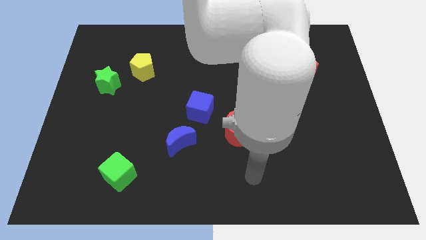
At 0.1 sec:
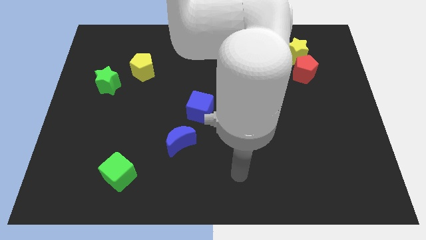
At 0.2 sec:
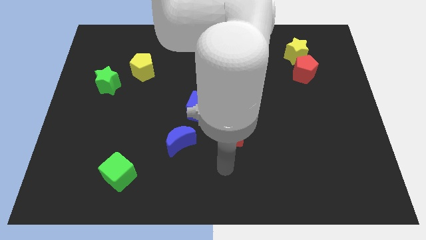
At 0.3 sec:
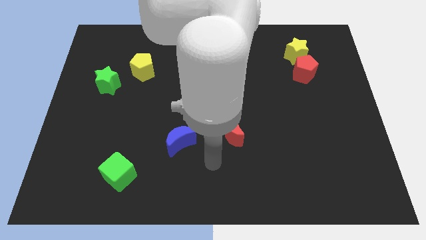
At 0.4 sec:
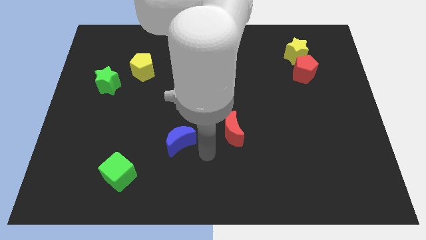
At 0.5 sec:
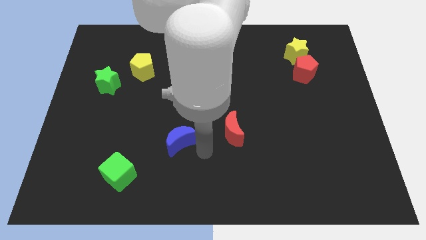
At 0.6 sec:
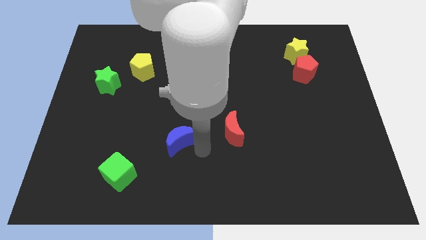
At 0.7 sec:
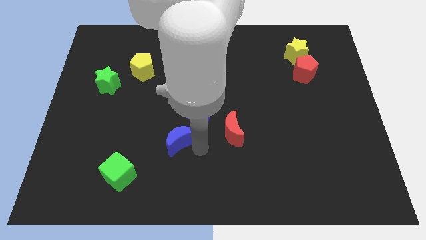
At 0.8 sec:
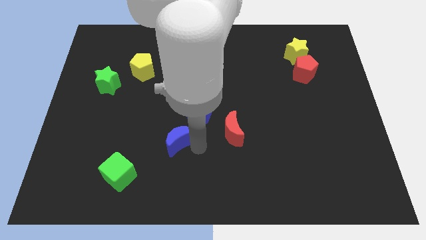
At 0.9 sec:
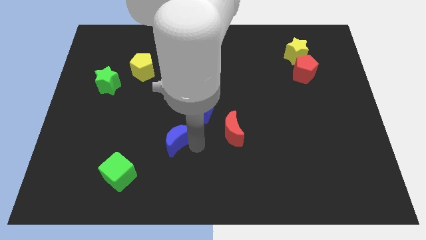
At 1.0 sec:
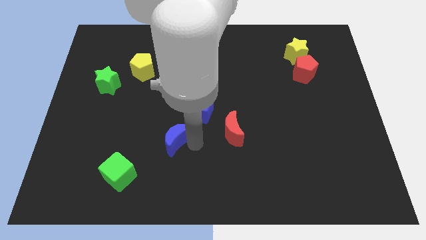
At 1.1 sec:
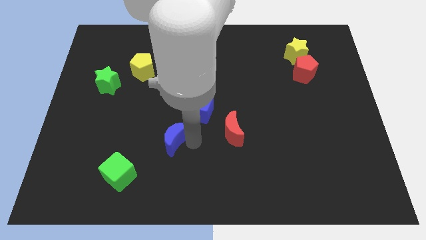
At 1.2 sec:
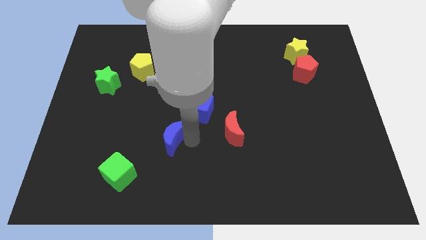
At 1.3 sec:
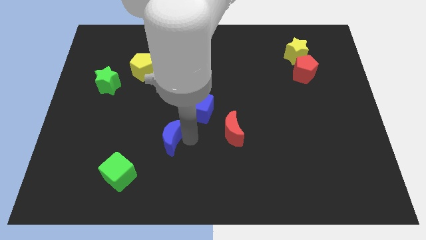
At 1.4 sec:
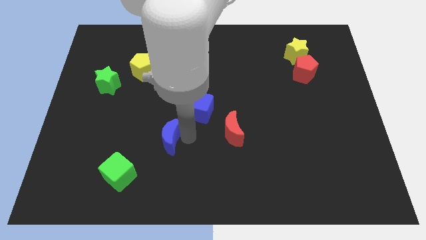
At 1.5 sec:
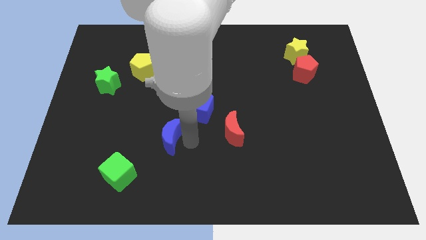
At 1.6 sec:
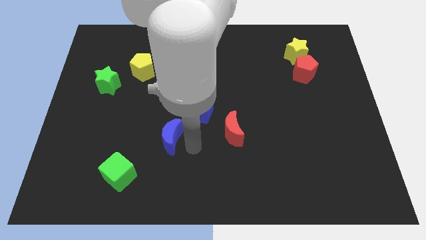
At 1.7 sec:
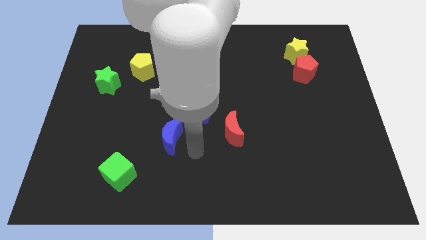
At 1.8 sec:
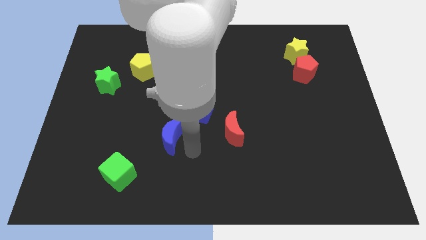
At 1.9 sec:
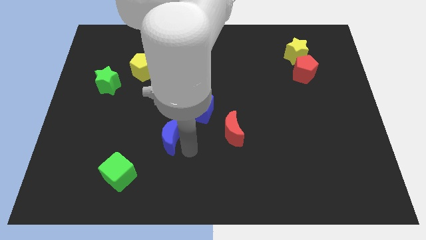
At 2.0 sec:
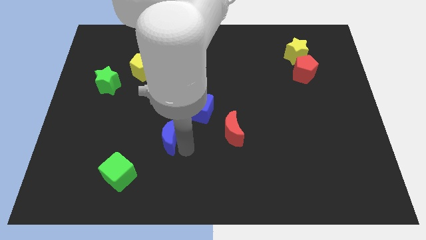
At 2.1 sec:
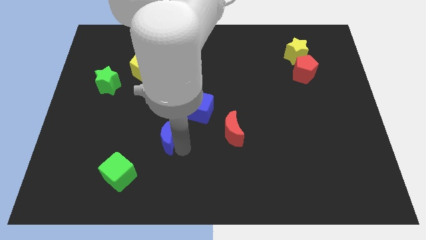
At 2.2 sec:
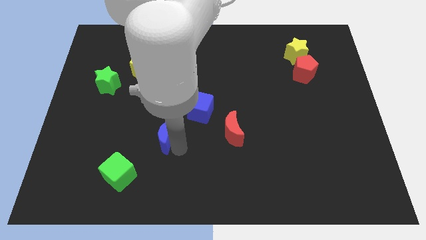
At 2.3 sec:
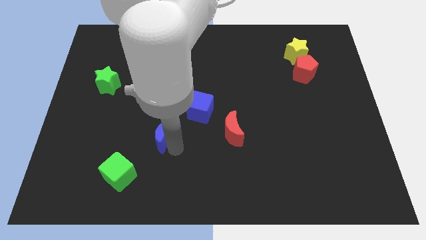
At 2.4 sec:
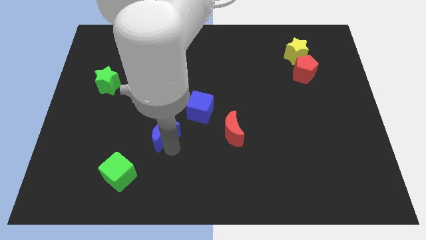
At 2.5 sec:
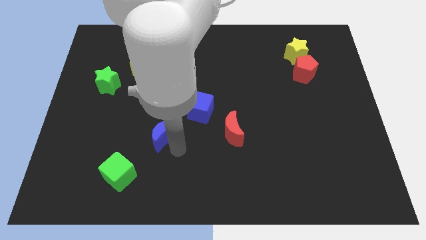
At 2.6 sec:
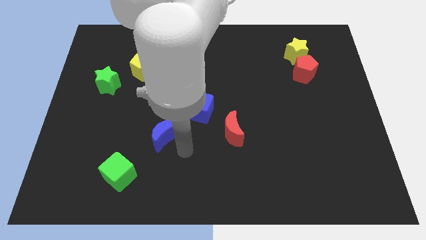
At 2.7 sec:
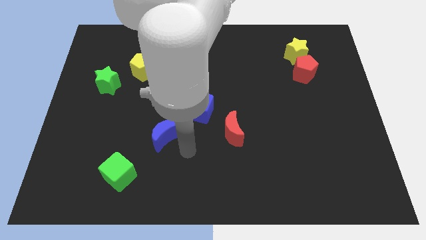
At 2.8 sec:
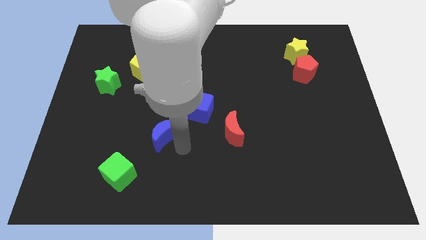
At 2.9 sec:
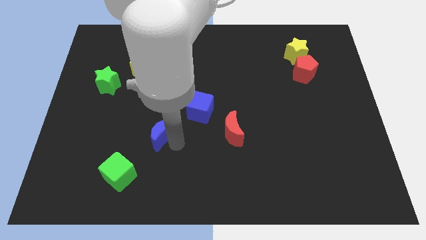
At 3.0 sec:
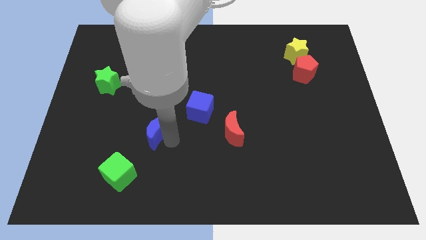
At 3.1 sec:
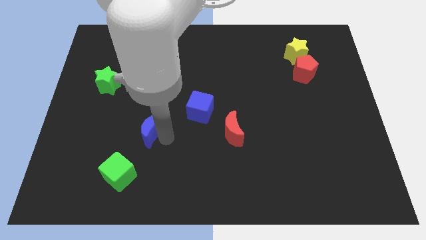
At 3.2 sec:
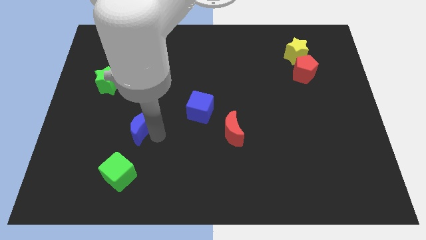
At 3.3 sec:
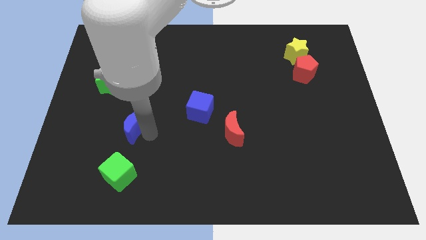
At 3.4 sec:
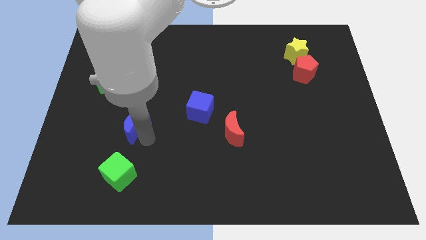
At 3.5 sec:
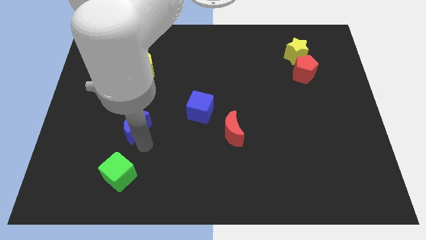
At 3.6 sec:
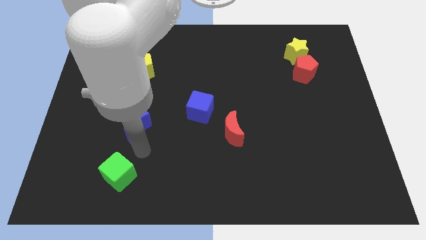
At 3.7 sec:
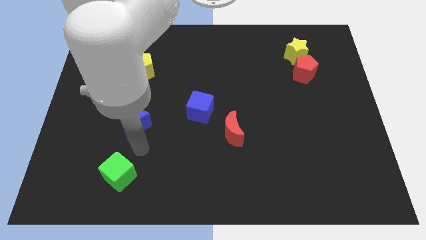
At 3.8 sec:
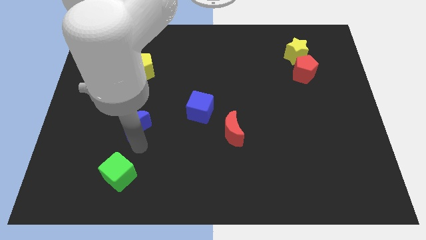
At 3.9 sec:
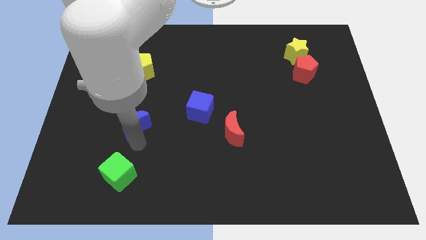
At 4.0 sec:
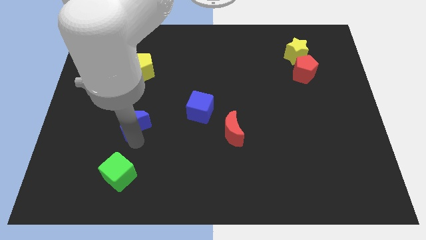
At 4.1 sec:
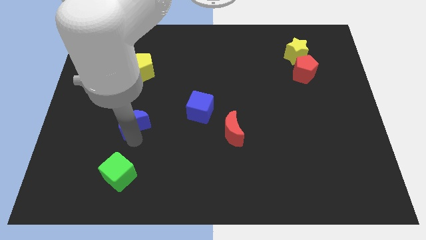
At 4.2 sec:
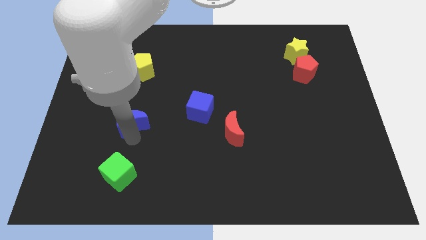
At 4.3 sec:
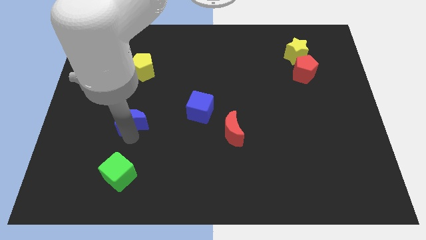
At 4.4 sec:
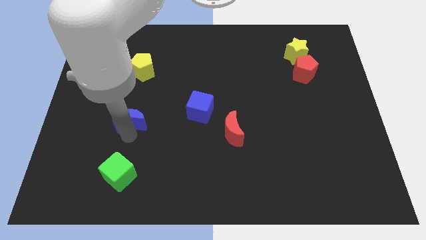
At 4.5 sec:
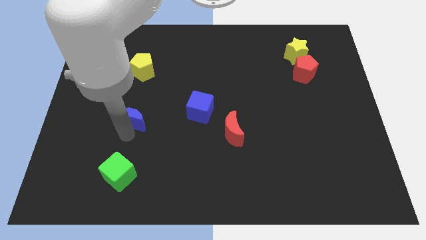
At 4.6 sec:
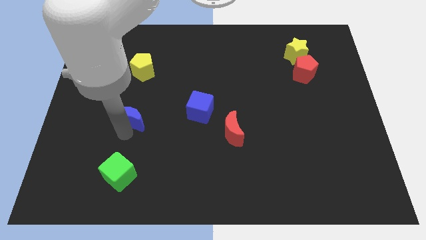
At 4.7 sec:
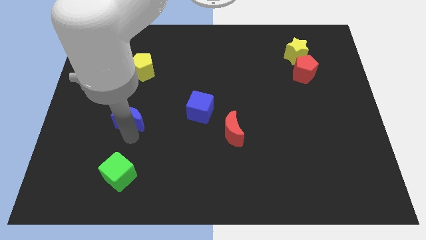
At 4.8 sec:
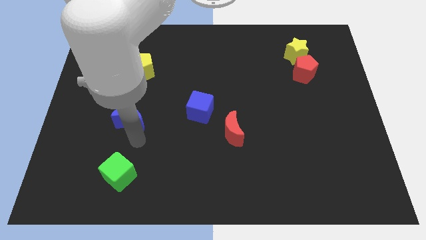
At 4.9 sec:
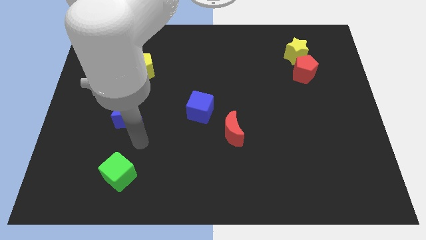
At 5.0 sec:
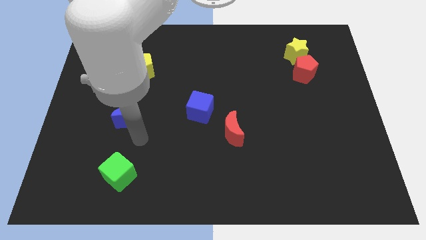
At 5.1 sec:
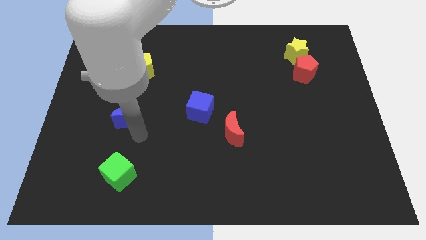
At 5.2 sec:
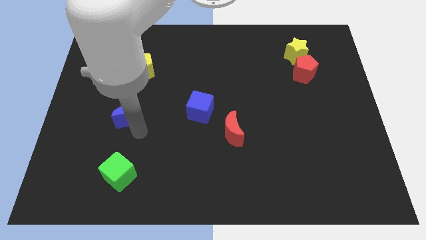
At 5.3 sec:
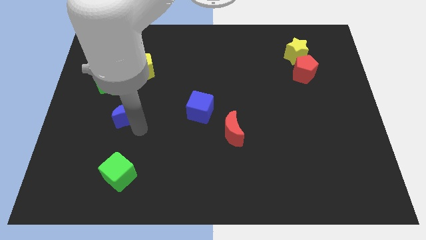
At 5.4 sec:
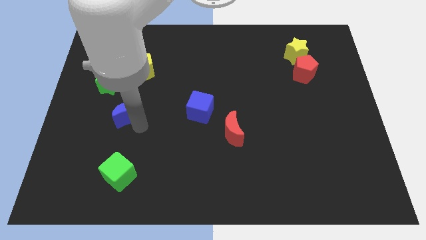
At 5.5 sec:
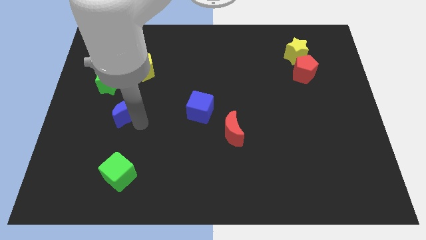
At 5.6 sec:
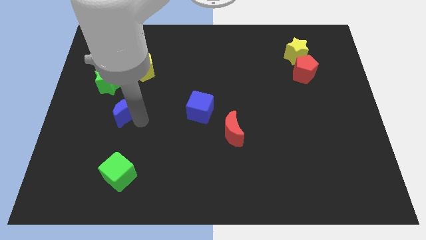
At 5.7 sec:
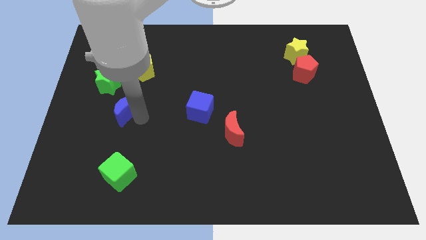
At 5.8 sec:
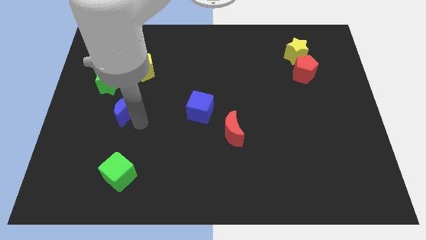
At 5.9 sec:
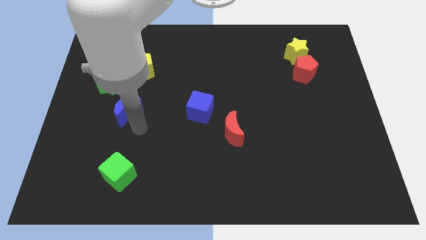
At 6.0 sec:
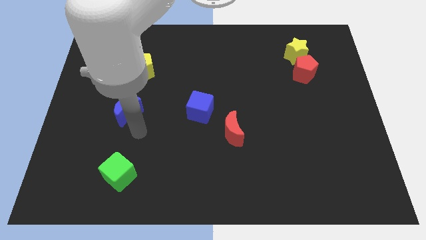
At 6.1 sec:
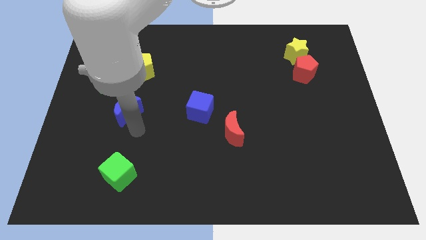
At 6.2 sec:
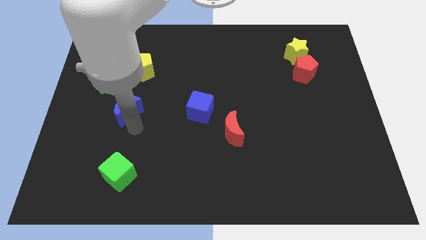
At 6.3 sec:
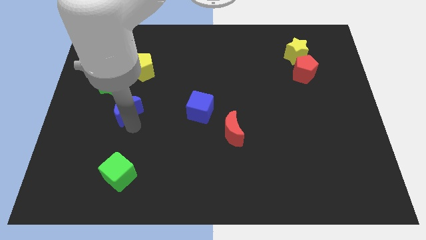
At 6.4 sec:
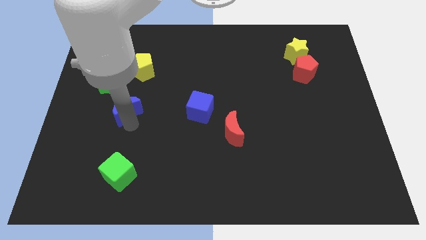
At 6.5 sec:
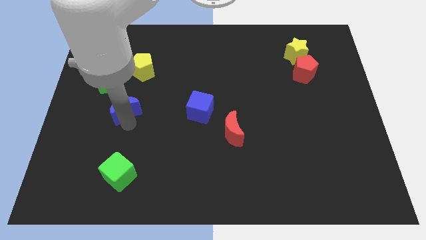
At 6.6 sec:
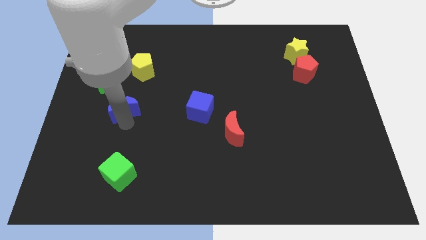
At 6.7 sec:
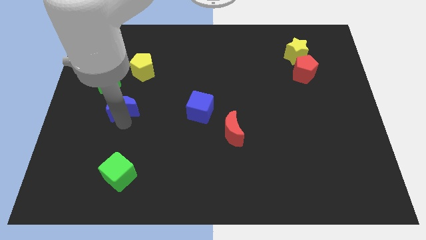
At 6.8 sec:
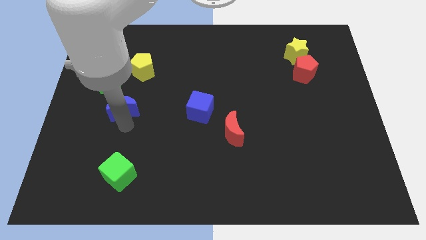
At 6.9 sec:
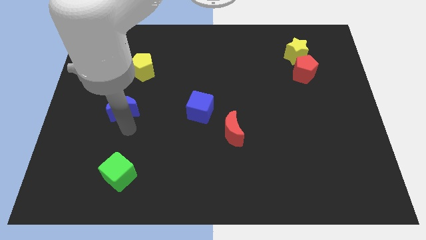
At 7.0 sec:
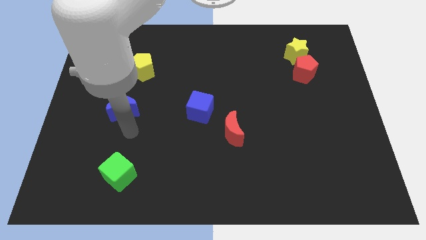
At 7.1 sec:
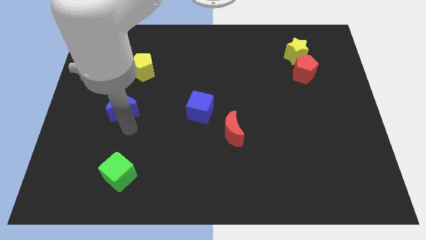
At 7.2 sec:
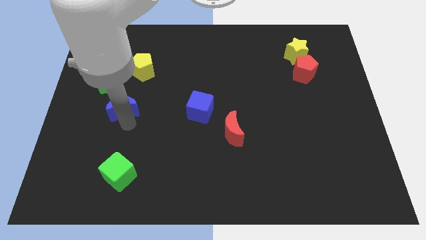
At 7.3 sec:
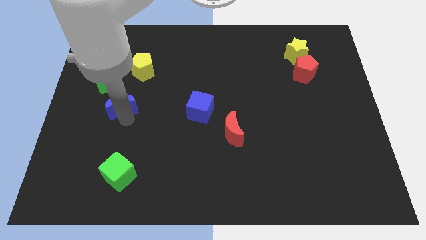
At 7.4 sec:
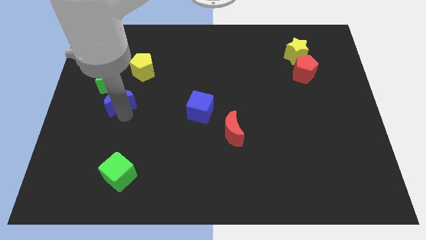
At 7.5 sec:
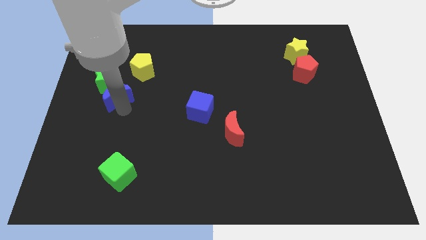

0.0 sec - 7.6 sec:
push the blue moon to the green star

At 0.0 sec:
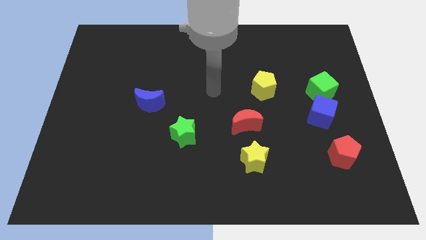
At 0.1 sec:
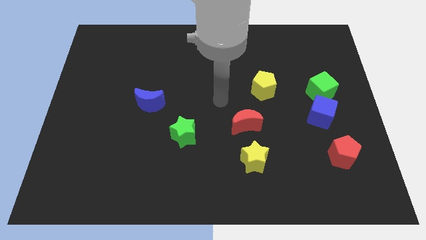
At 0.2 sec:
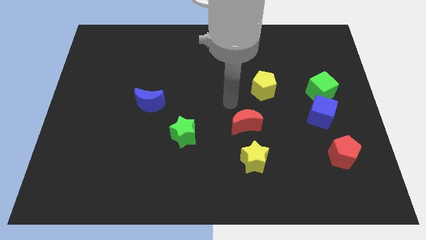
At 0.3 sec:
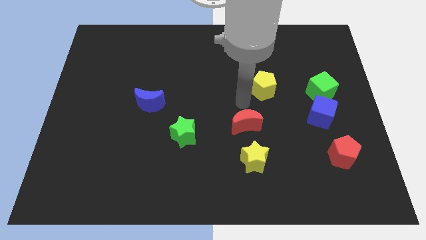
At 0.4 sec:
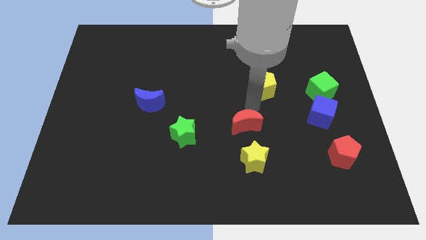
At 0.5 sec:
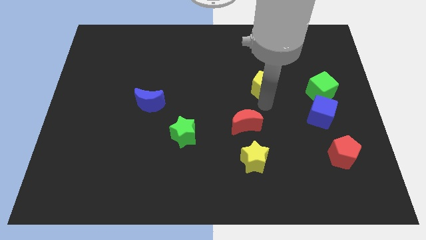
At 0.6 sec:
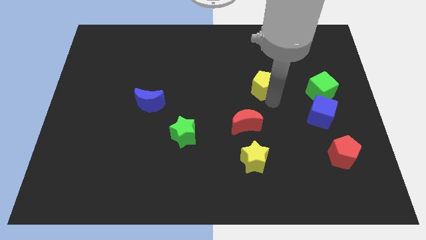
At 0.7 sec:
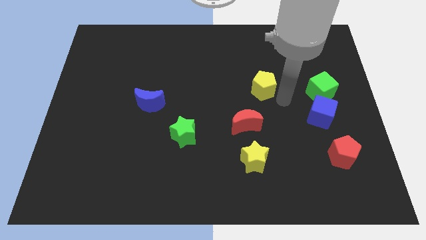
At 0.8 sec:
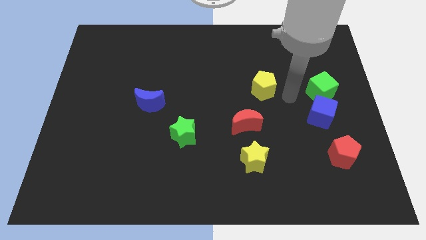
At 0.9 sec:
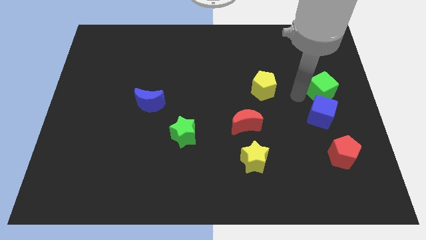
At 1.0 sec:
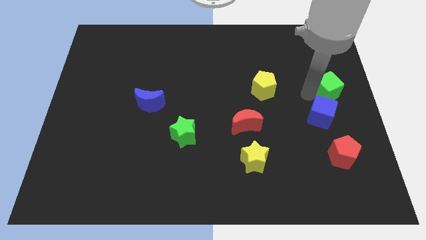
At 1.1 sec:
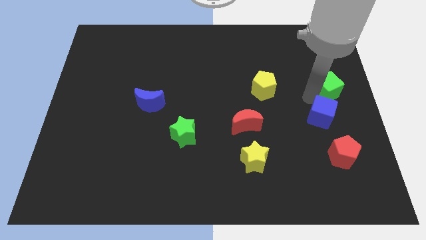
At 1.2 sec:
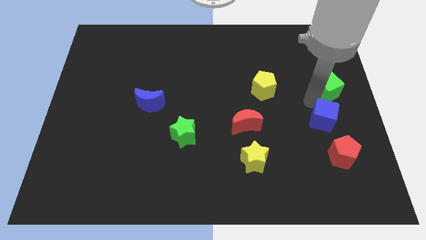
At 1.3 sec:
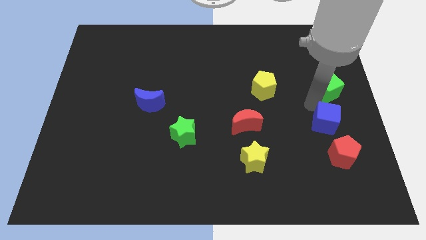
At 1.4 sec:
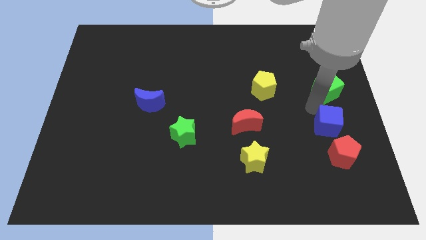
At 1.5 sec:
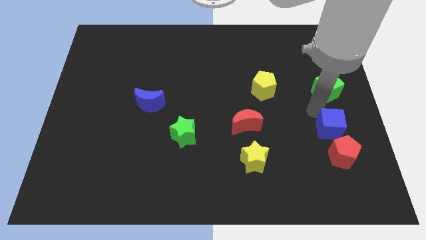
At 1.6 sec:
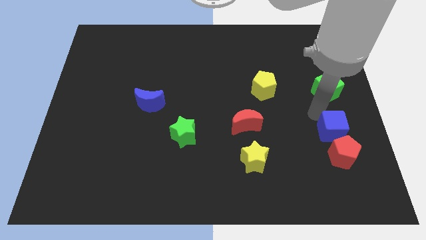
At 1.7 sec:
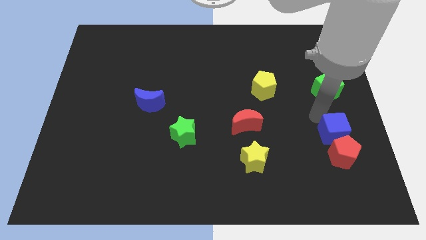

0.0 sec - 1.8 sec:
put the blue cube close to the red pentagon
